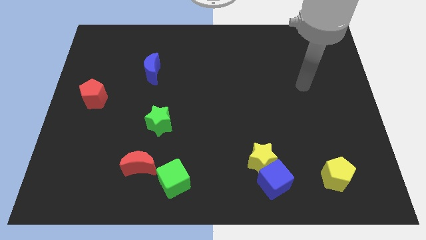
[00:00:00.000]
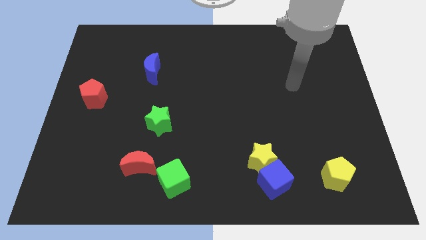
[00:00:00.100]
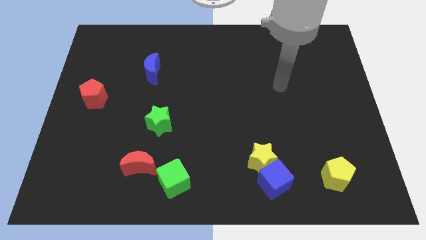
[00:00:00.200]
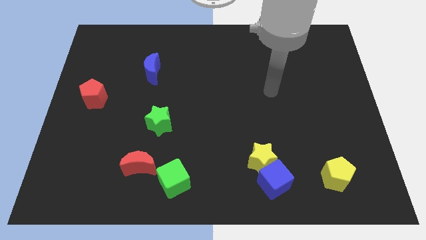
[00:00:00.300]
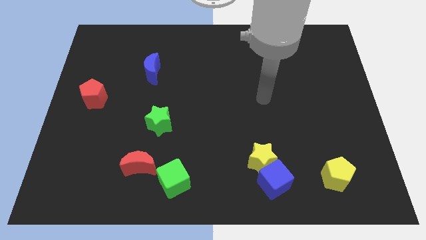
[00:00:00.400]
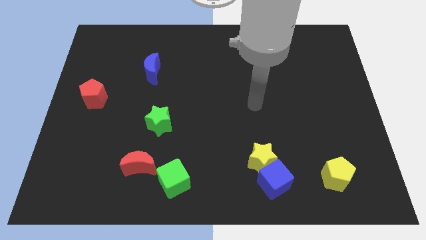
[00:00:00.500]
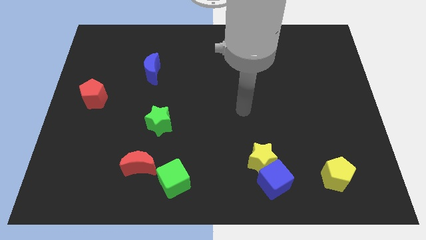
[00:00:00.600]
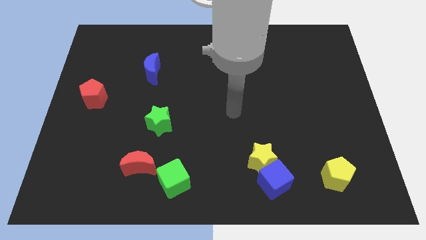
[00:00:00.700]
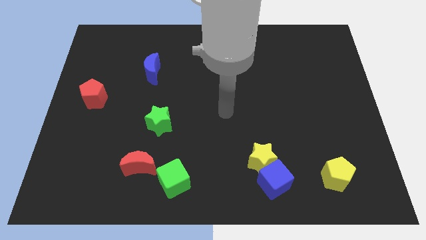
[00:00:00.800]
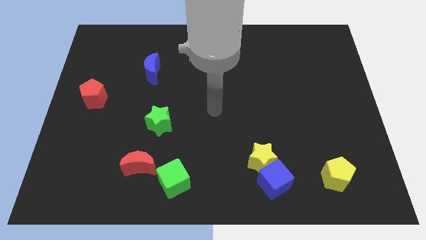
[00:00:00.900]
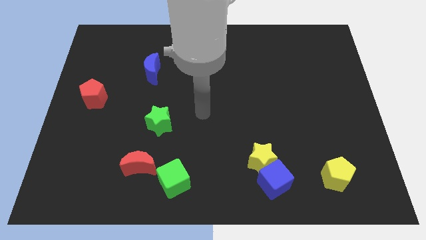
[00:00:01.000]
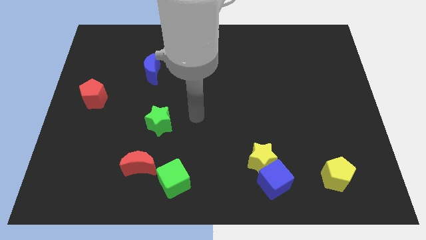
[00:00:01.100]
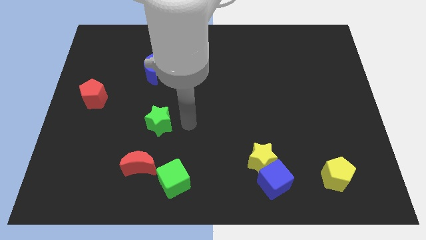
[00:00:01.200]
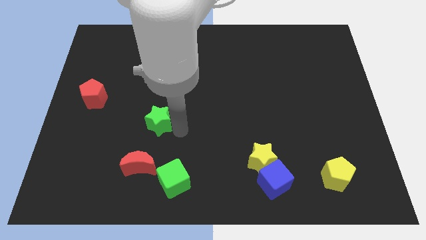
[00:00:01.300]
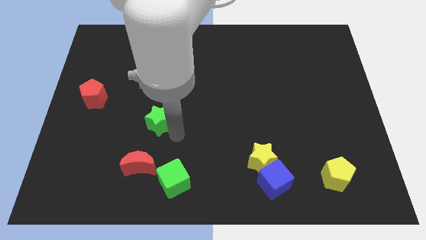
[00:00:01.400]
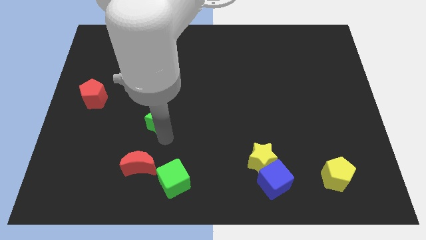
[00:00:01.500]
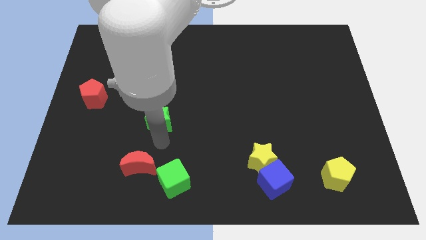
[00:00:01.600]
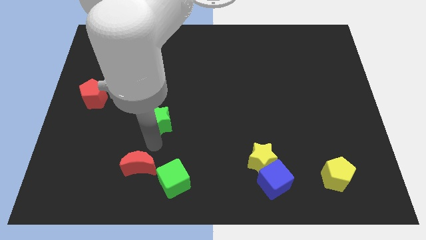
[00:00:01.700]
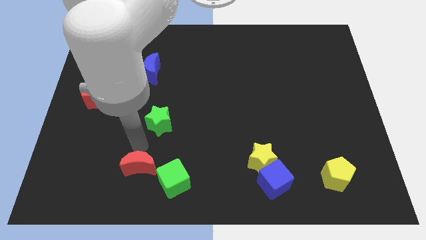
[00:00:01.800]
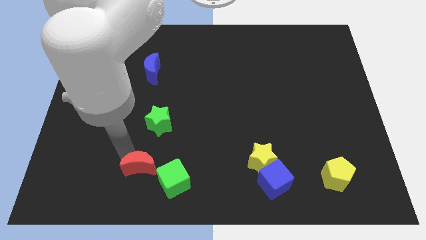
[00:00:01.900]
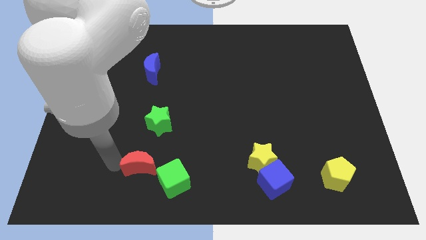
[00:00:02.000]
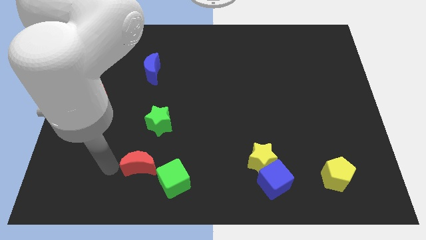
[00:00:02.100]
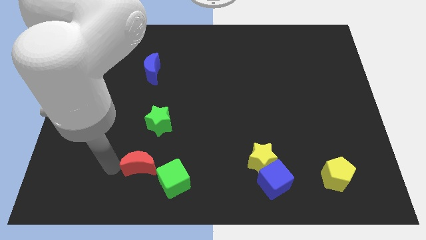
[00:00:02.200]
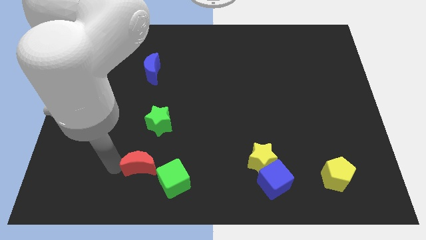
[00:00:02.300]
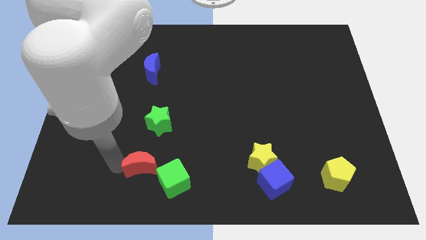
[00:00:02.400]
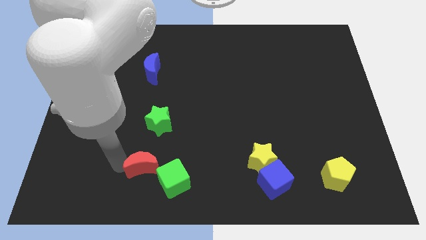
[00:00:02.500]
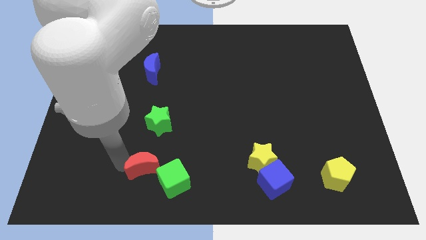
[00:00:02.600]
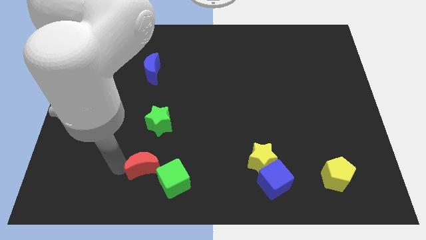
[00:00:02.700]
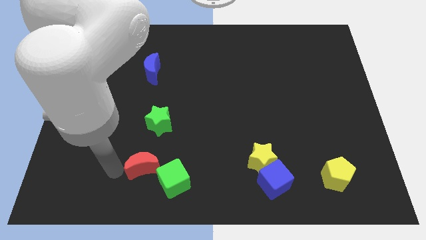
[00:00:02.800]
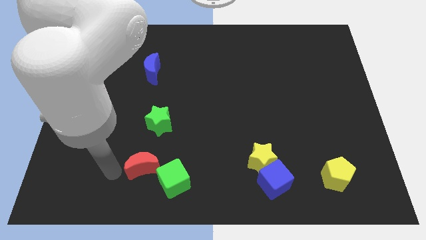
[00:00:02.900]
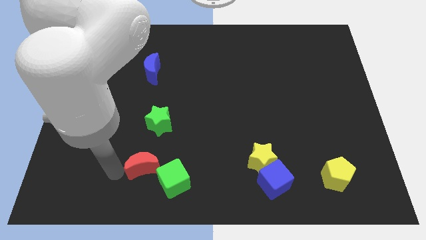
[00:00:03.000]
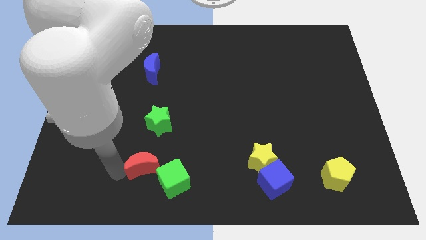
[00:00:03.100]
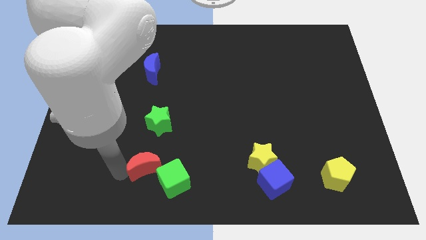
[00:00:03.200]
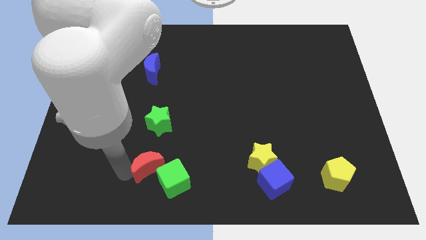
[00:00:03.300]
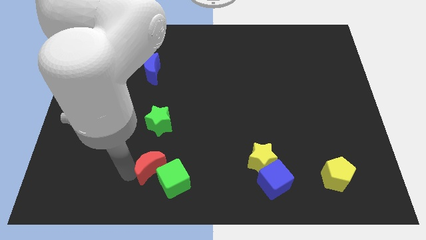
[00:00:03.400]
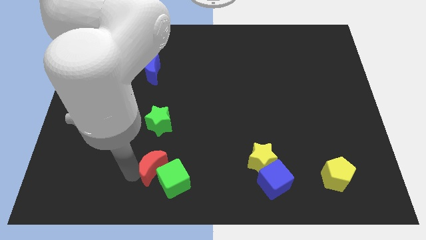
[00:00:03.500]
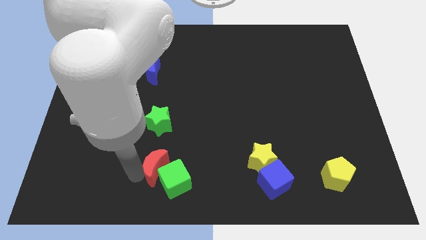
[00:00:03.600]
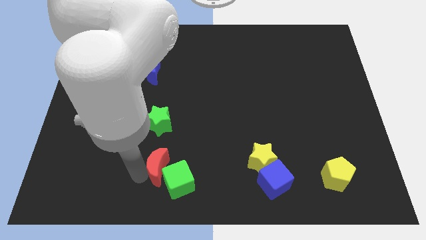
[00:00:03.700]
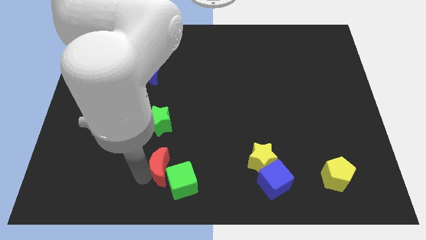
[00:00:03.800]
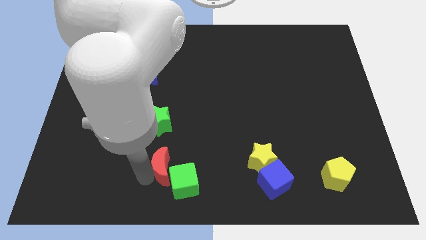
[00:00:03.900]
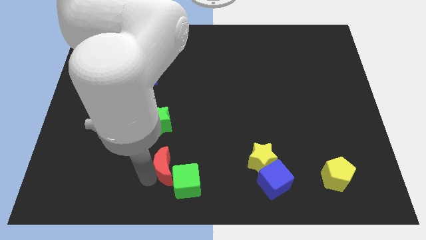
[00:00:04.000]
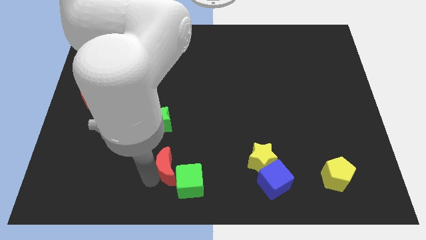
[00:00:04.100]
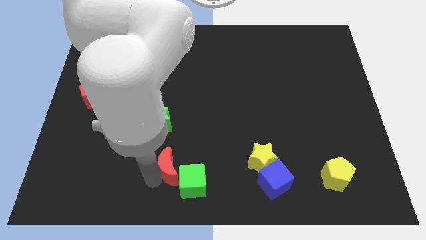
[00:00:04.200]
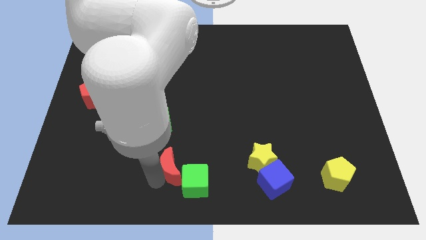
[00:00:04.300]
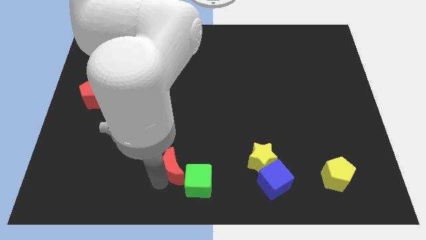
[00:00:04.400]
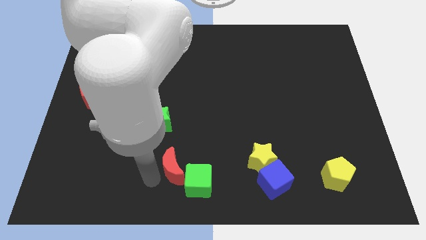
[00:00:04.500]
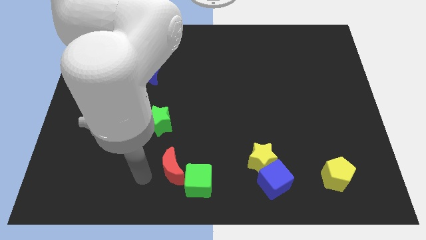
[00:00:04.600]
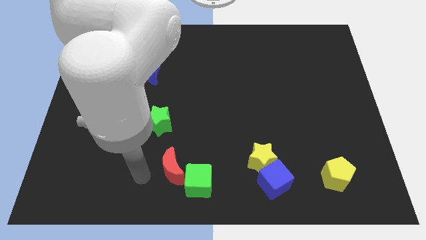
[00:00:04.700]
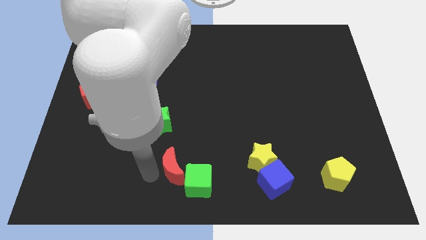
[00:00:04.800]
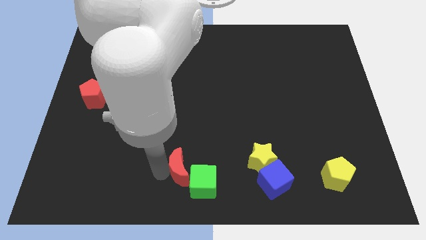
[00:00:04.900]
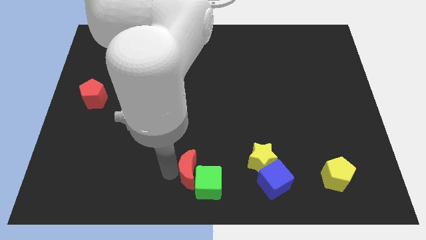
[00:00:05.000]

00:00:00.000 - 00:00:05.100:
put the red moon just left of the yellow star

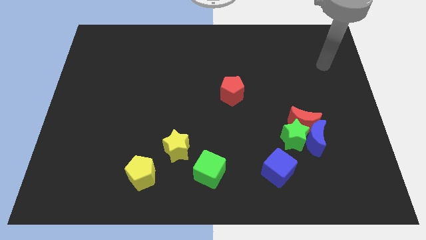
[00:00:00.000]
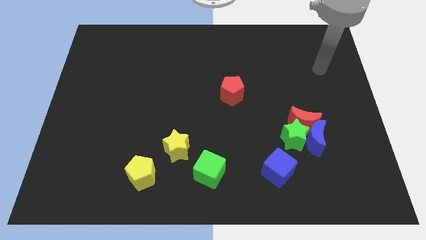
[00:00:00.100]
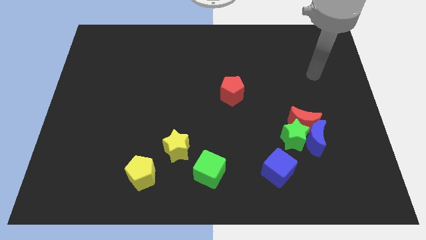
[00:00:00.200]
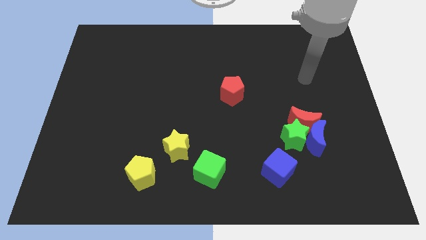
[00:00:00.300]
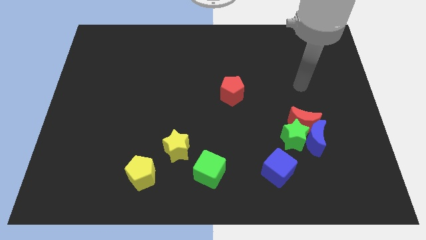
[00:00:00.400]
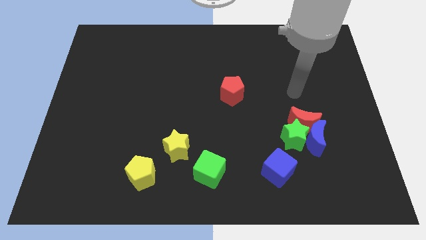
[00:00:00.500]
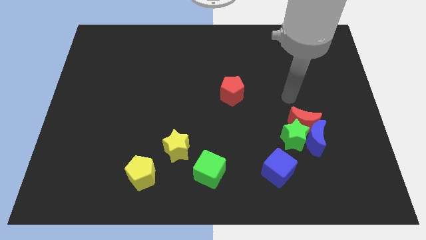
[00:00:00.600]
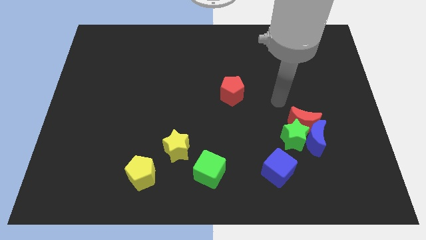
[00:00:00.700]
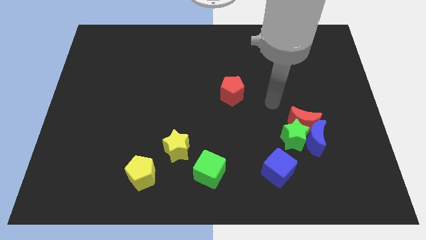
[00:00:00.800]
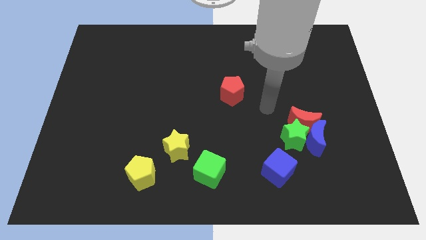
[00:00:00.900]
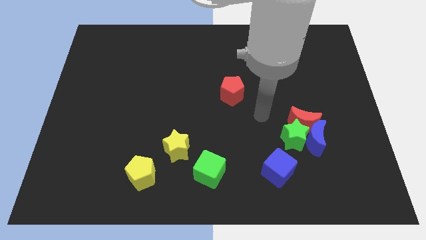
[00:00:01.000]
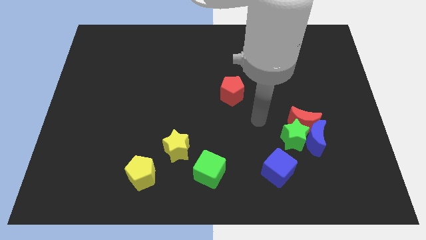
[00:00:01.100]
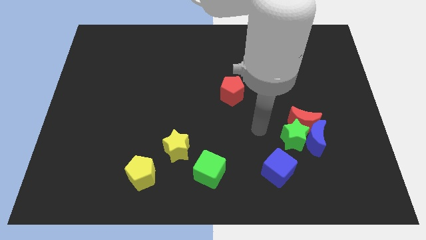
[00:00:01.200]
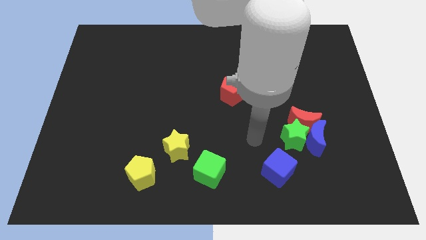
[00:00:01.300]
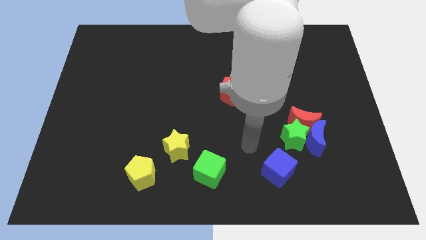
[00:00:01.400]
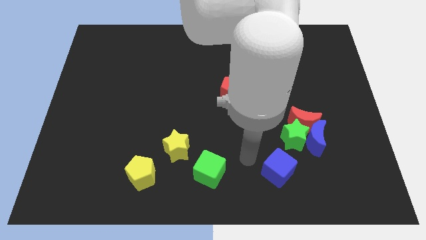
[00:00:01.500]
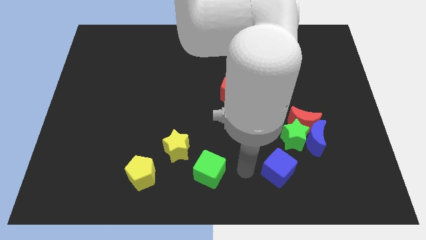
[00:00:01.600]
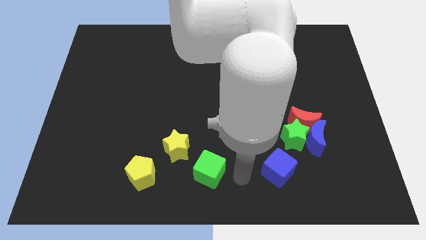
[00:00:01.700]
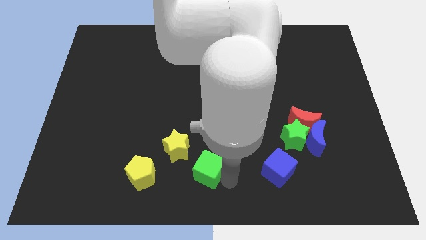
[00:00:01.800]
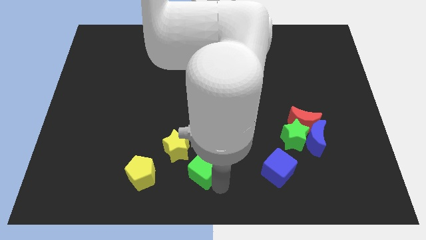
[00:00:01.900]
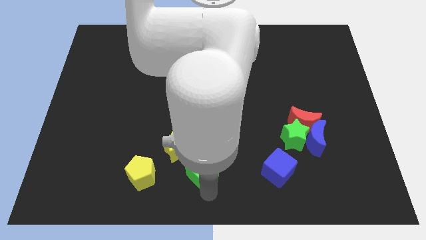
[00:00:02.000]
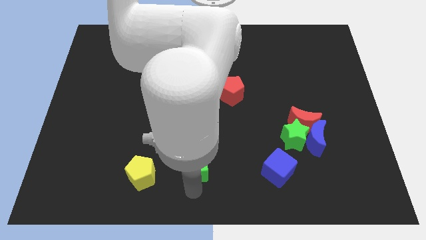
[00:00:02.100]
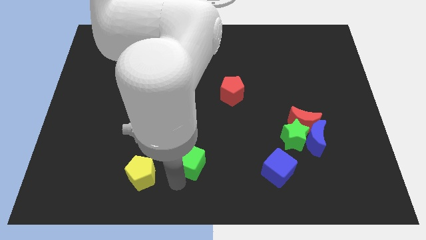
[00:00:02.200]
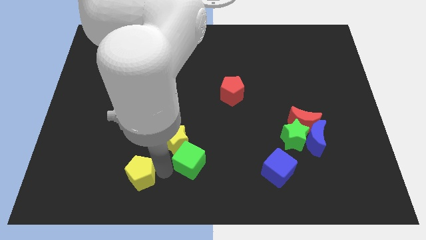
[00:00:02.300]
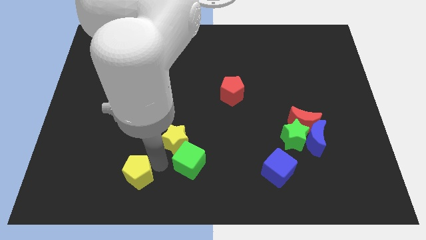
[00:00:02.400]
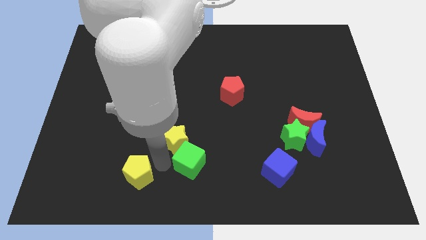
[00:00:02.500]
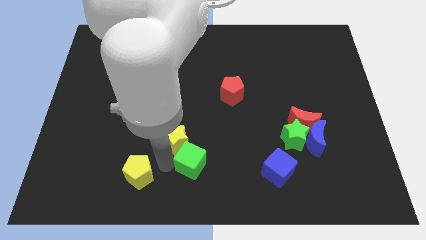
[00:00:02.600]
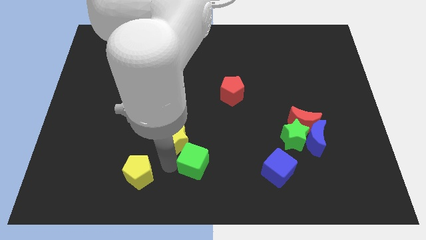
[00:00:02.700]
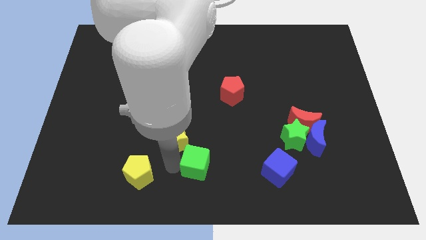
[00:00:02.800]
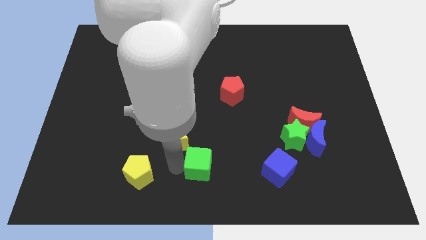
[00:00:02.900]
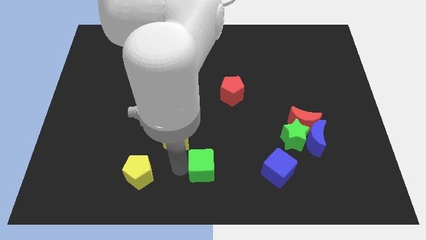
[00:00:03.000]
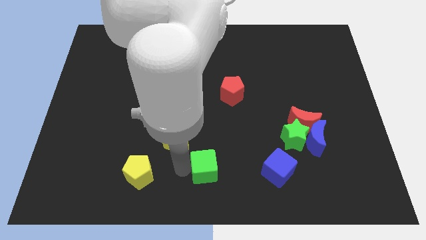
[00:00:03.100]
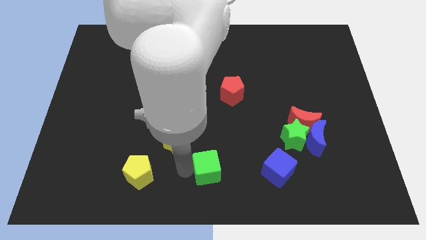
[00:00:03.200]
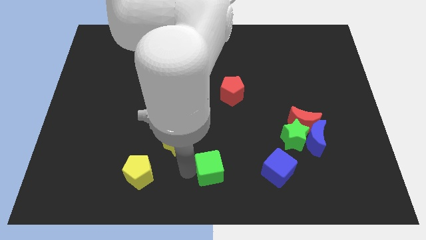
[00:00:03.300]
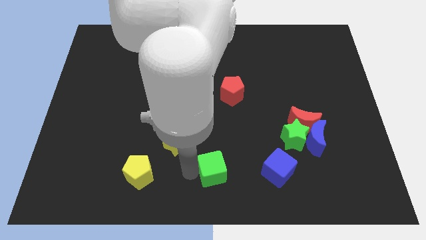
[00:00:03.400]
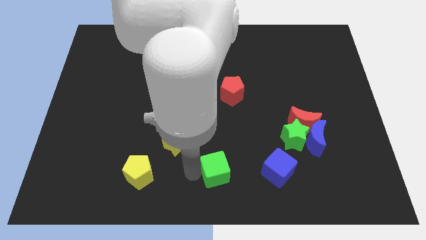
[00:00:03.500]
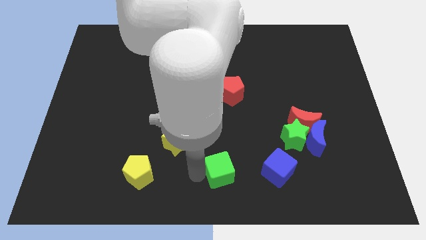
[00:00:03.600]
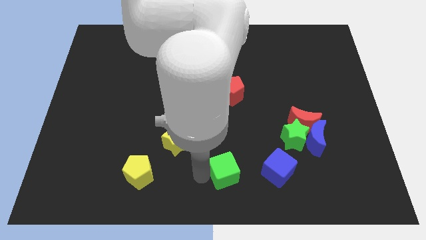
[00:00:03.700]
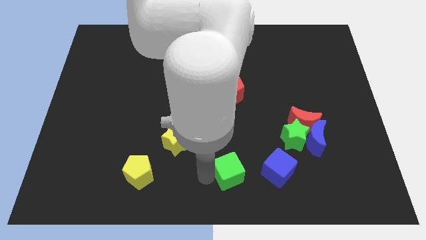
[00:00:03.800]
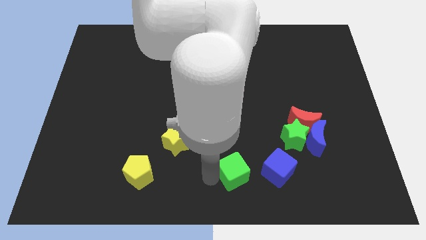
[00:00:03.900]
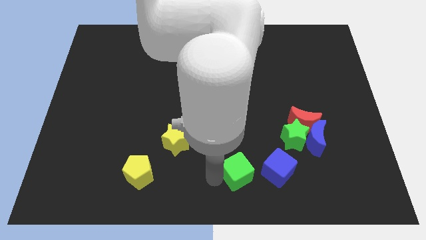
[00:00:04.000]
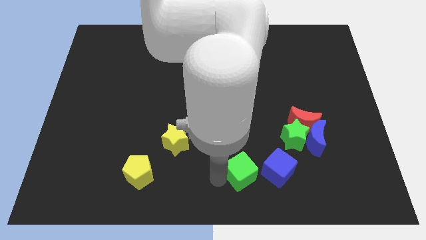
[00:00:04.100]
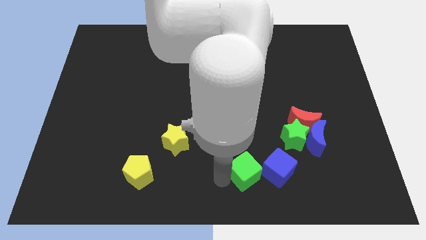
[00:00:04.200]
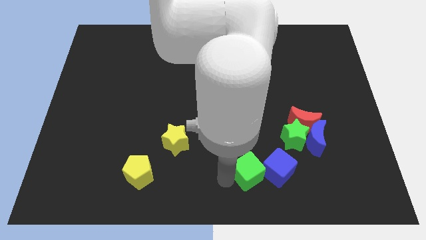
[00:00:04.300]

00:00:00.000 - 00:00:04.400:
put the green cube to the top left of the blue cube
